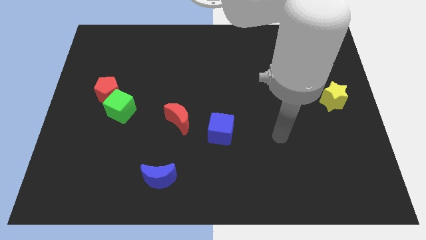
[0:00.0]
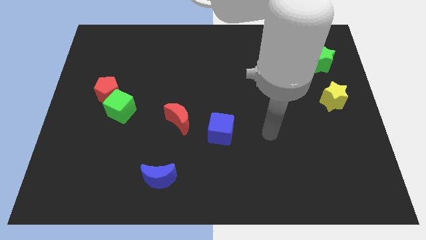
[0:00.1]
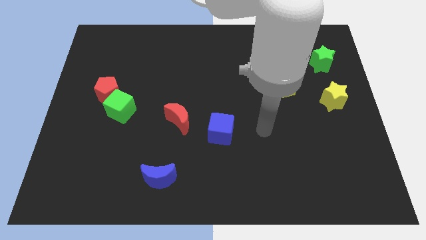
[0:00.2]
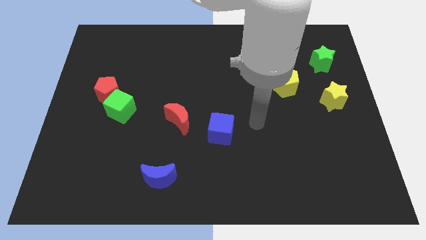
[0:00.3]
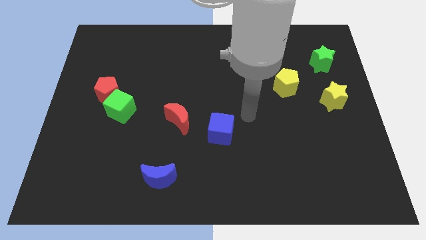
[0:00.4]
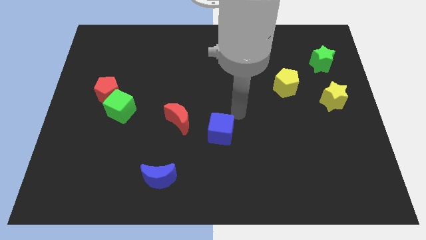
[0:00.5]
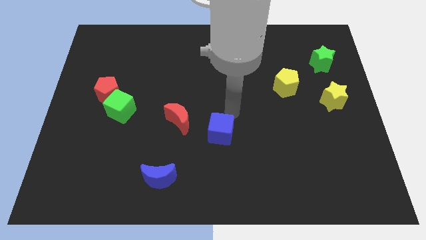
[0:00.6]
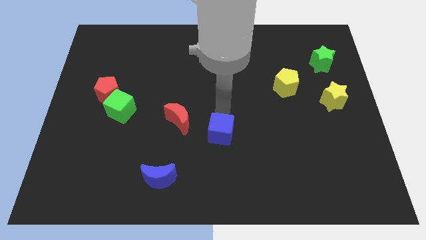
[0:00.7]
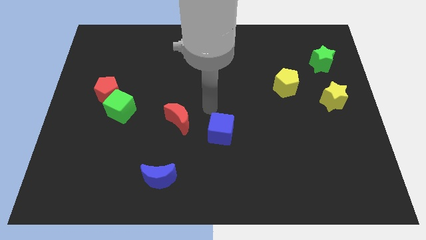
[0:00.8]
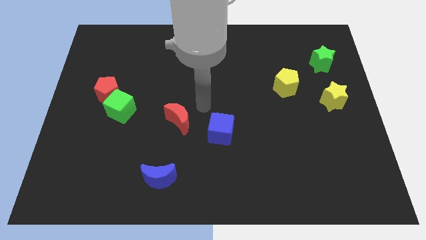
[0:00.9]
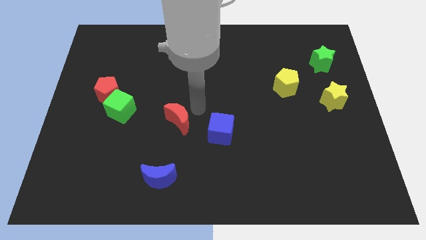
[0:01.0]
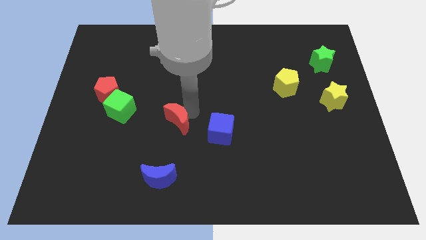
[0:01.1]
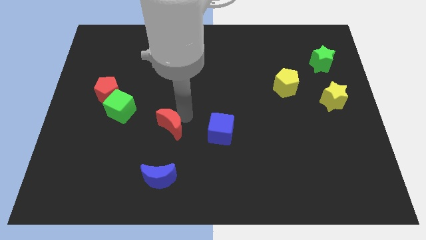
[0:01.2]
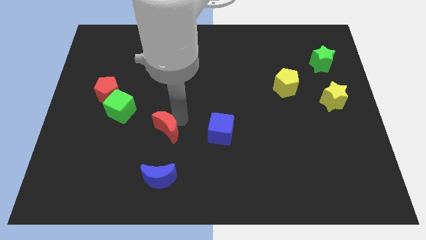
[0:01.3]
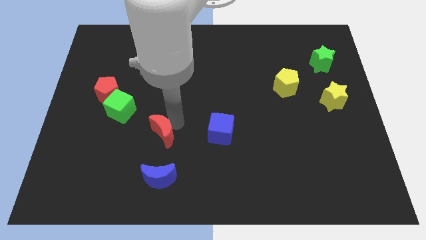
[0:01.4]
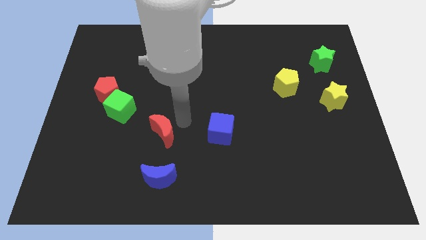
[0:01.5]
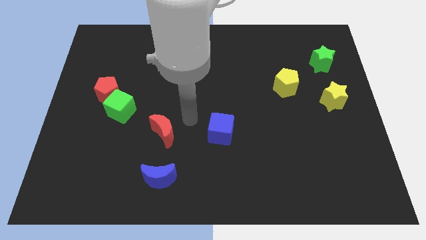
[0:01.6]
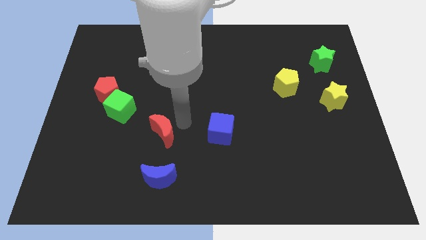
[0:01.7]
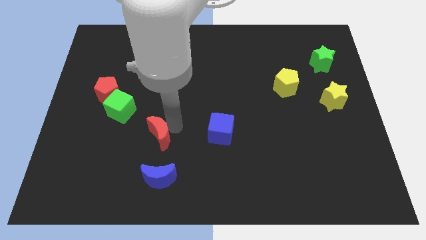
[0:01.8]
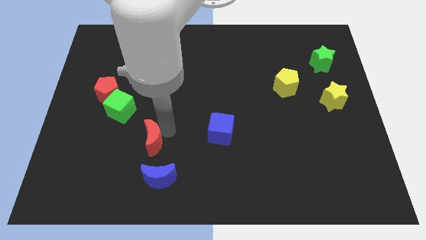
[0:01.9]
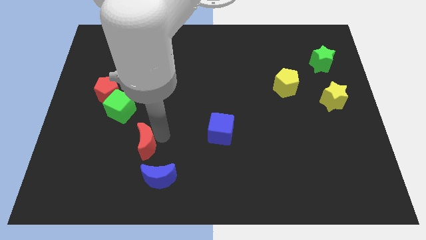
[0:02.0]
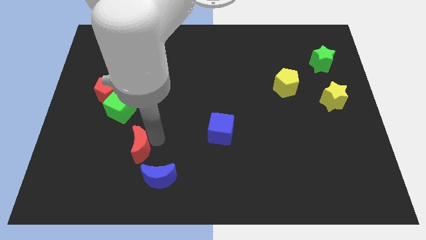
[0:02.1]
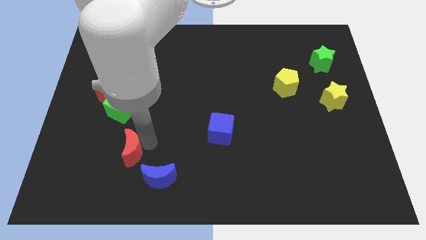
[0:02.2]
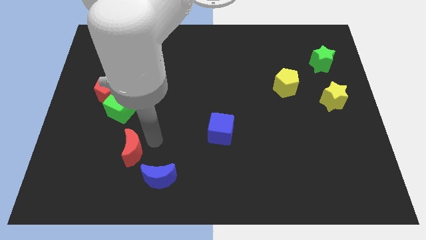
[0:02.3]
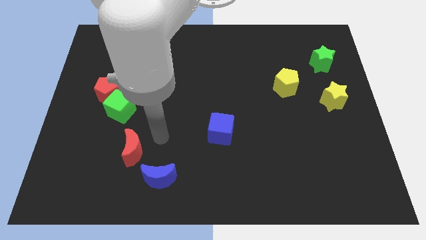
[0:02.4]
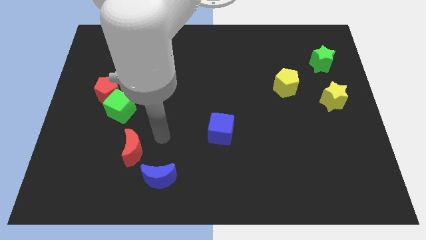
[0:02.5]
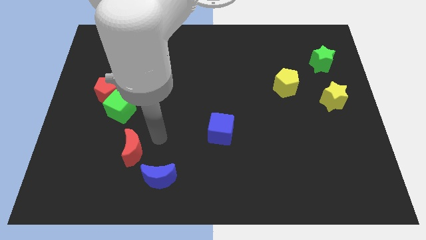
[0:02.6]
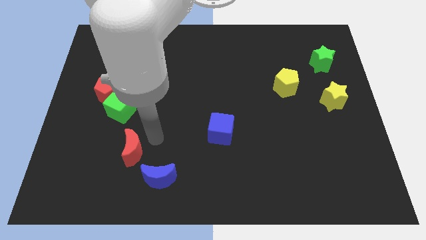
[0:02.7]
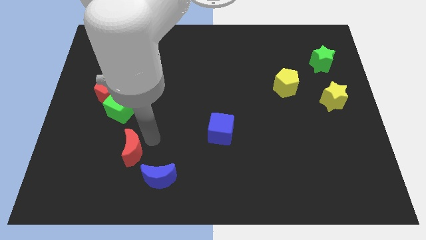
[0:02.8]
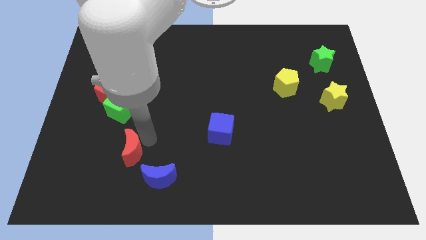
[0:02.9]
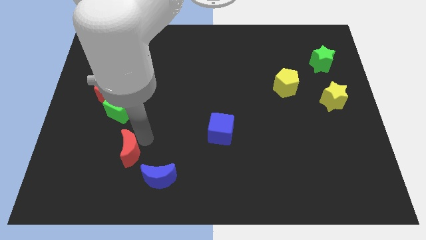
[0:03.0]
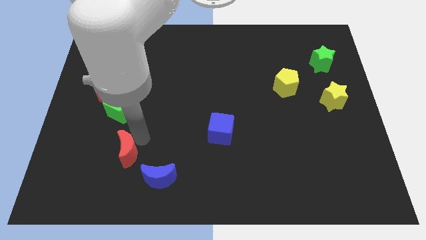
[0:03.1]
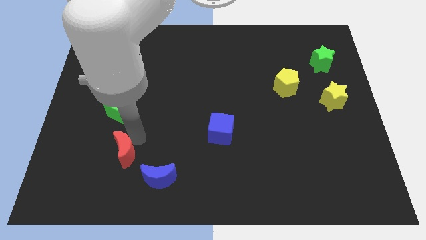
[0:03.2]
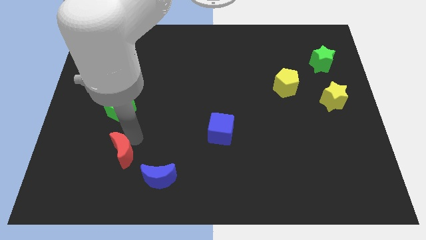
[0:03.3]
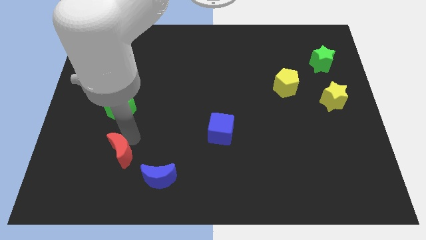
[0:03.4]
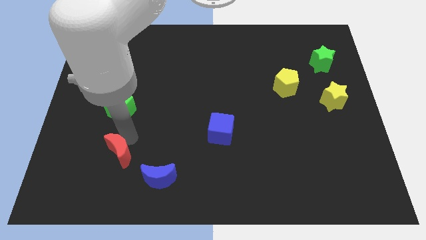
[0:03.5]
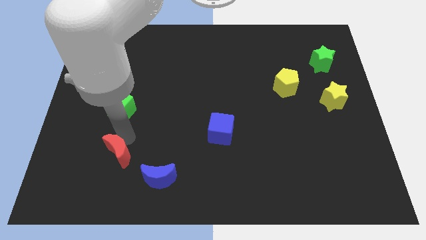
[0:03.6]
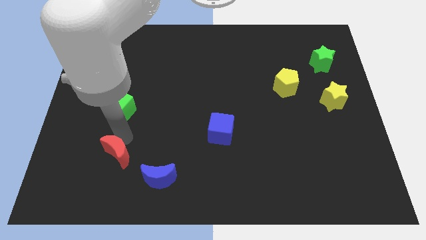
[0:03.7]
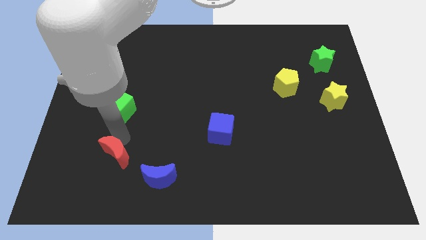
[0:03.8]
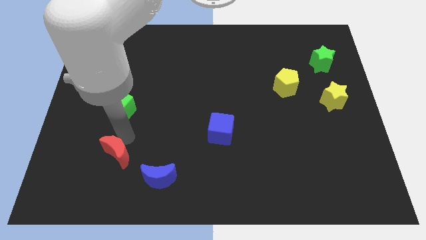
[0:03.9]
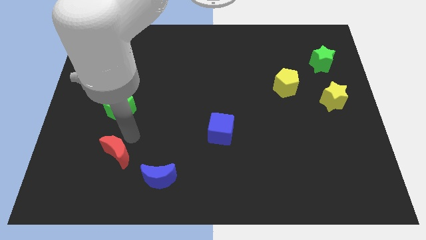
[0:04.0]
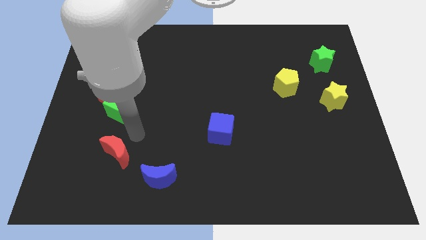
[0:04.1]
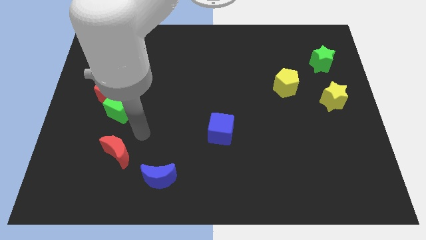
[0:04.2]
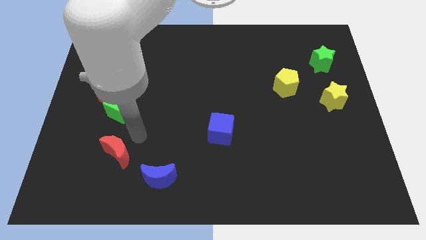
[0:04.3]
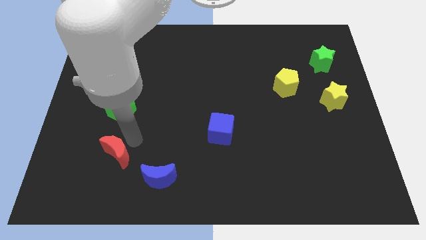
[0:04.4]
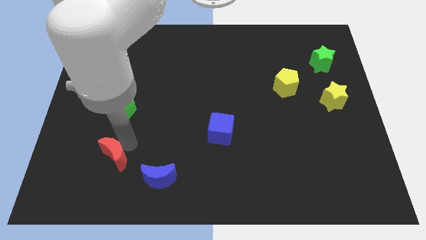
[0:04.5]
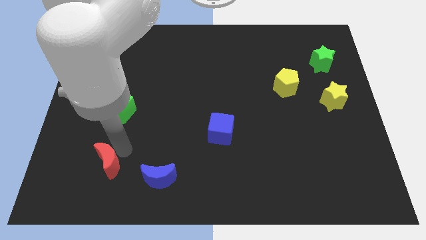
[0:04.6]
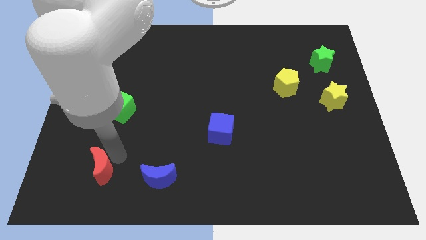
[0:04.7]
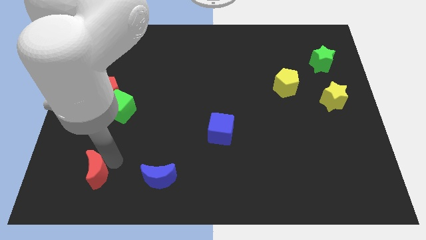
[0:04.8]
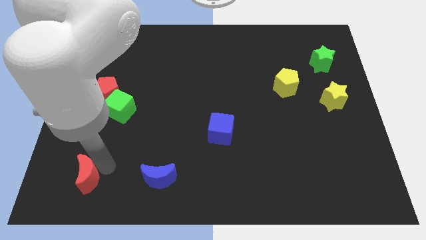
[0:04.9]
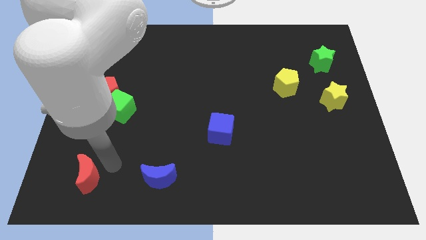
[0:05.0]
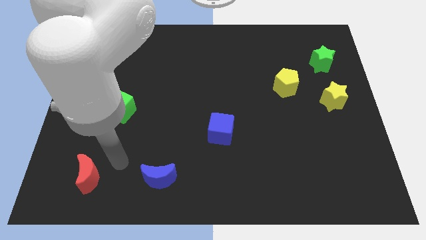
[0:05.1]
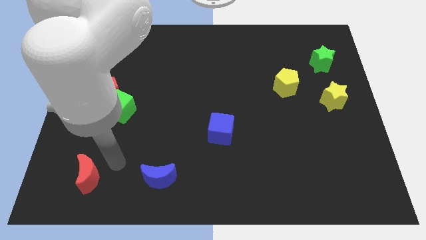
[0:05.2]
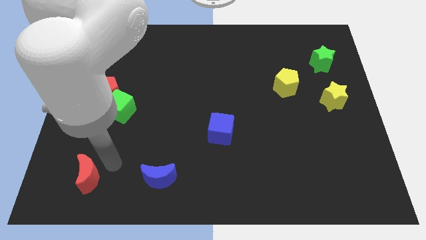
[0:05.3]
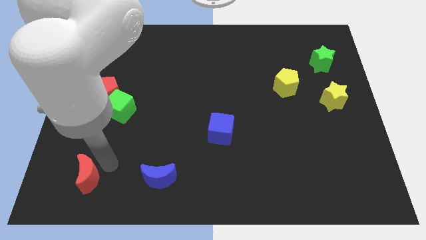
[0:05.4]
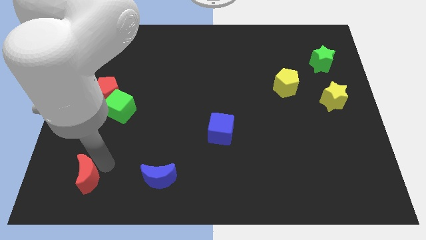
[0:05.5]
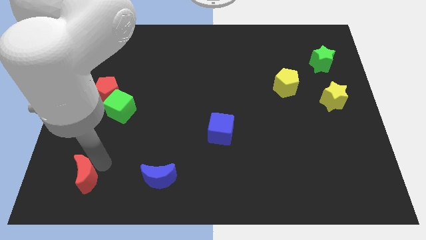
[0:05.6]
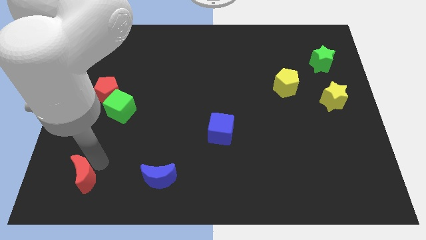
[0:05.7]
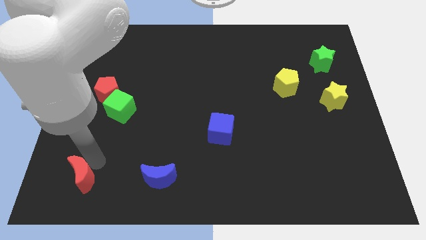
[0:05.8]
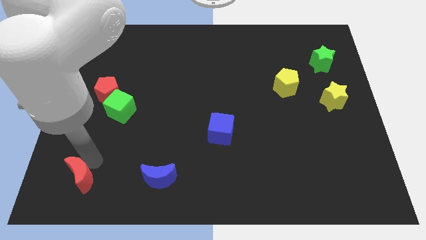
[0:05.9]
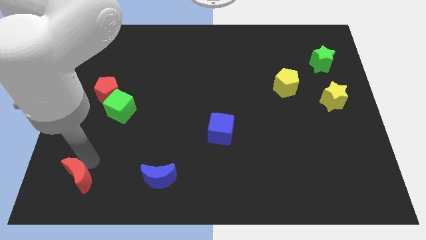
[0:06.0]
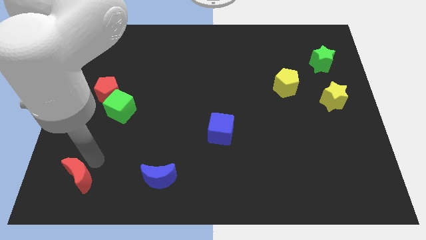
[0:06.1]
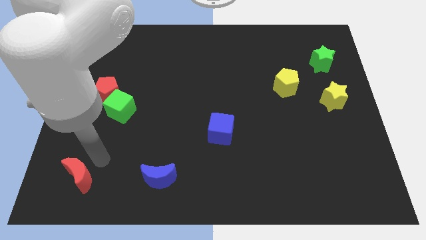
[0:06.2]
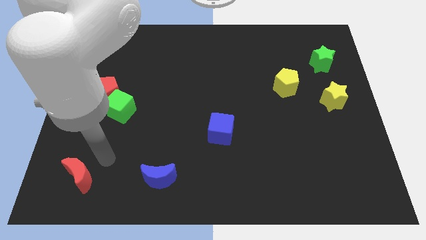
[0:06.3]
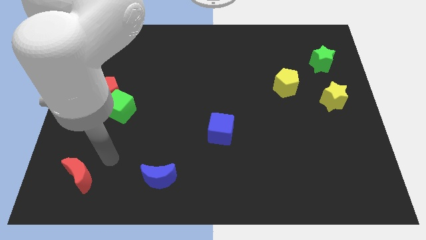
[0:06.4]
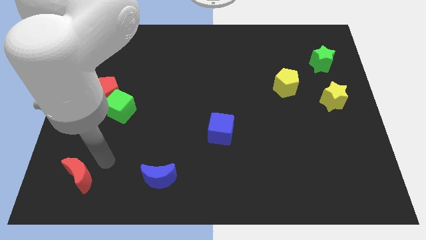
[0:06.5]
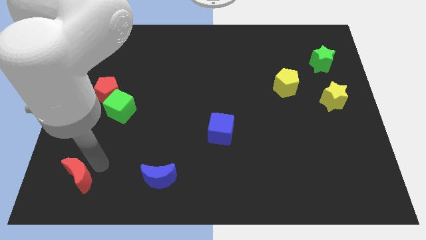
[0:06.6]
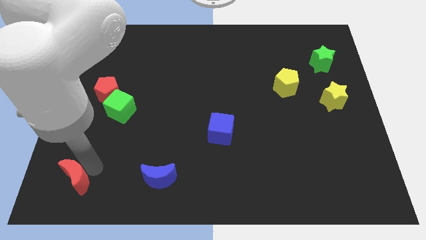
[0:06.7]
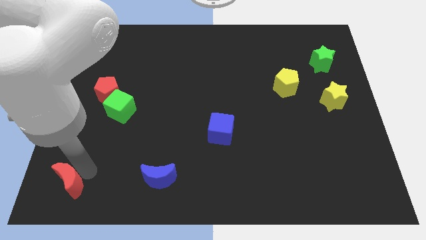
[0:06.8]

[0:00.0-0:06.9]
slide the red moon to the bottom left corner

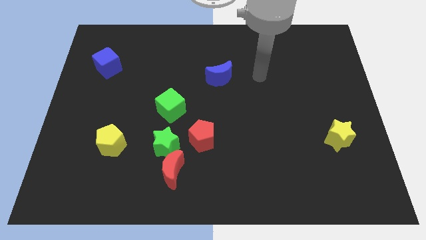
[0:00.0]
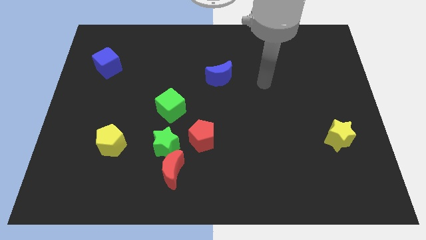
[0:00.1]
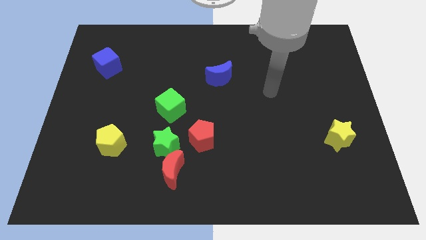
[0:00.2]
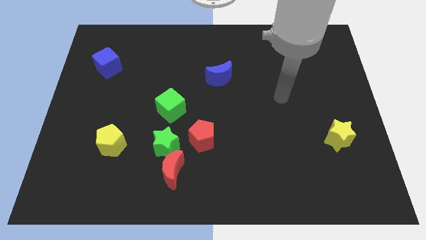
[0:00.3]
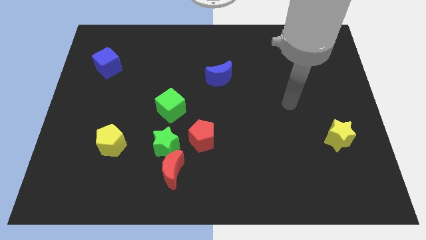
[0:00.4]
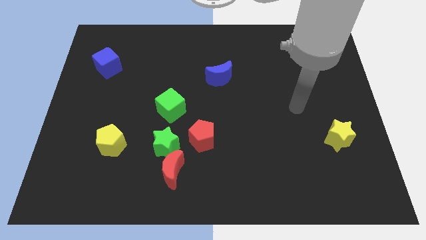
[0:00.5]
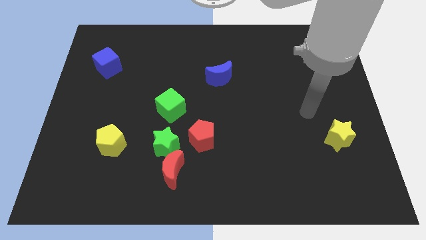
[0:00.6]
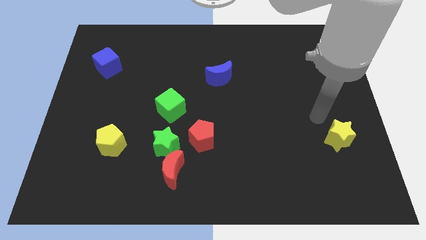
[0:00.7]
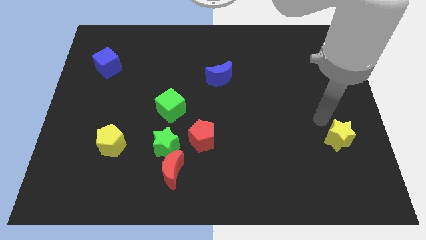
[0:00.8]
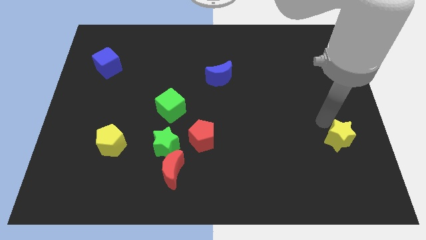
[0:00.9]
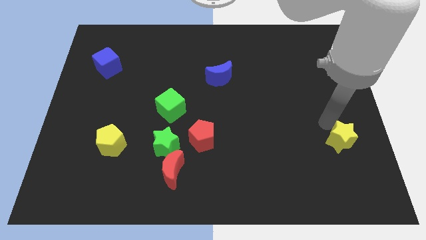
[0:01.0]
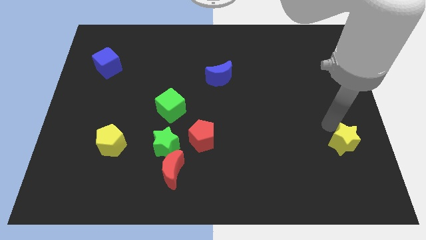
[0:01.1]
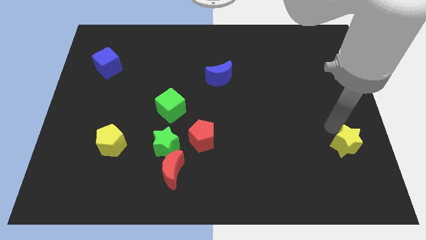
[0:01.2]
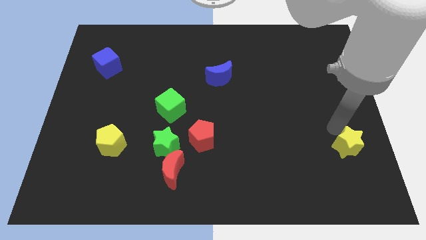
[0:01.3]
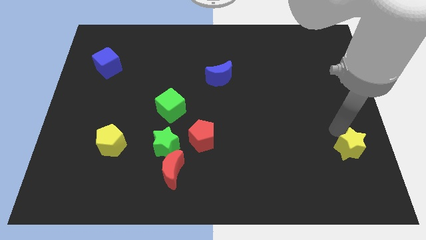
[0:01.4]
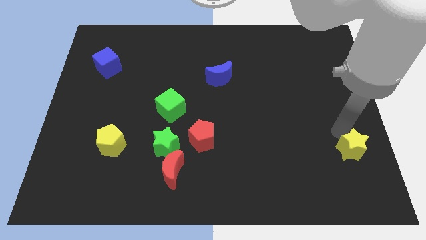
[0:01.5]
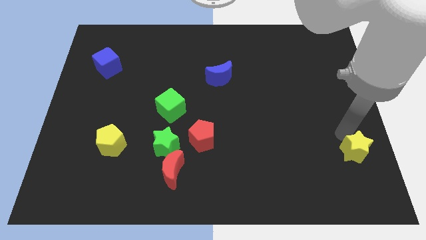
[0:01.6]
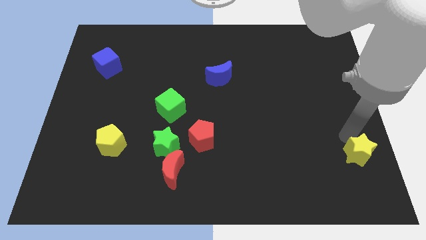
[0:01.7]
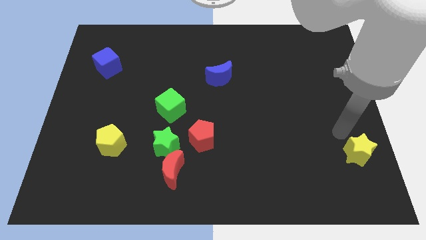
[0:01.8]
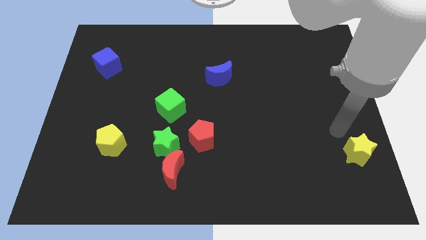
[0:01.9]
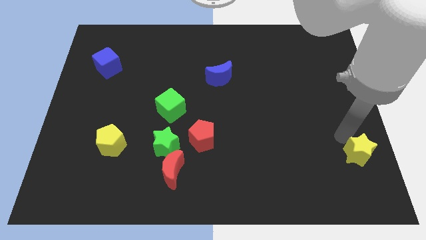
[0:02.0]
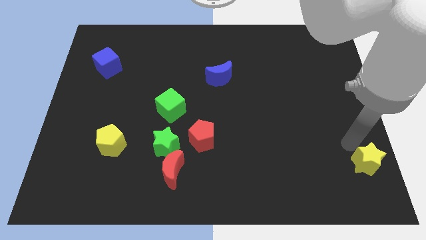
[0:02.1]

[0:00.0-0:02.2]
put the yellow star to the bottom right corner
